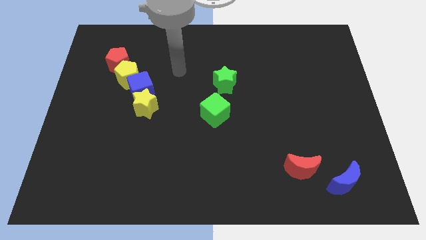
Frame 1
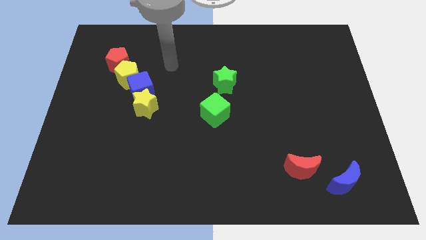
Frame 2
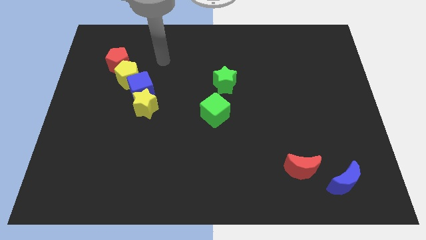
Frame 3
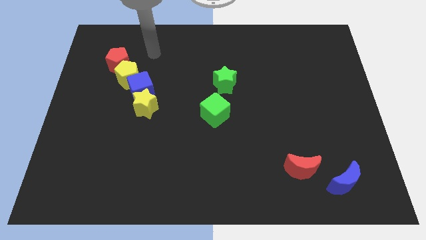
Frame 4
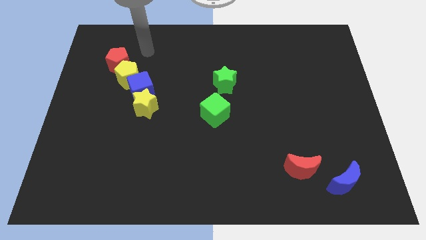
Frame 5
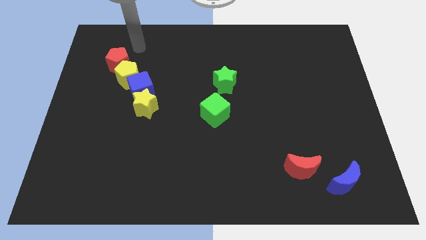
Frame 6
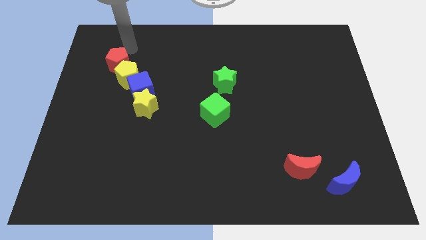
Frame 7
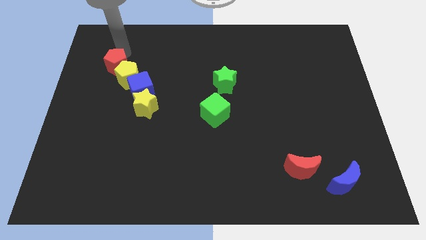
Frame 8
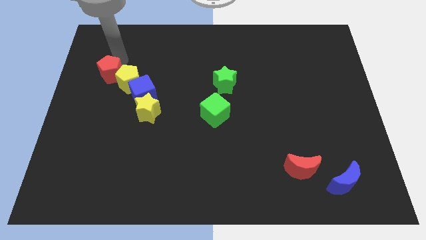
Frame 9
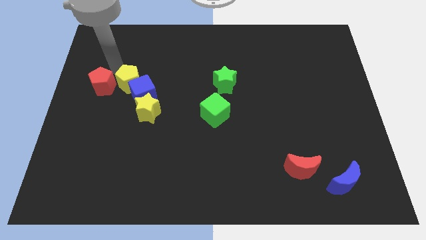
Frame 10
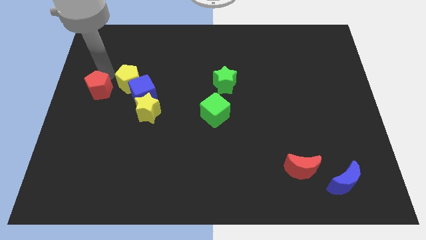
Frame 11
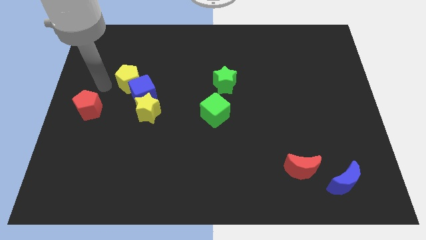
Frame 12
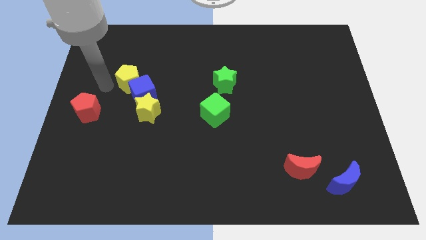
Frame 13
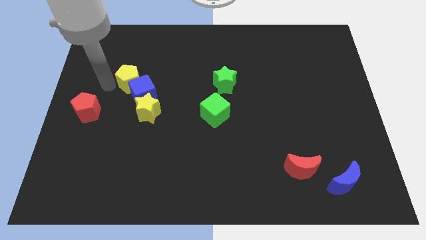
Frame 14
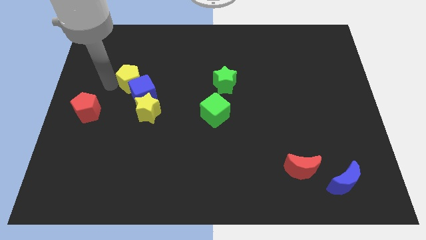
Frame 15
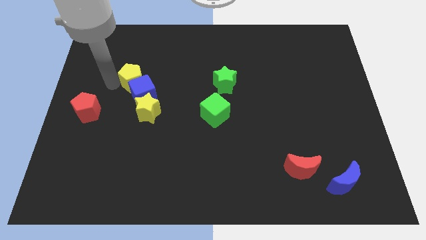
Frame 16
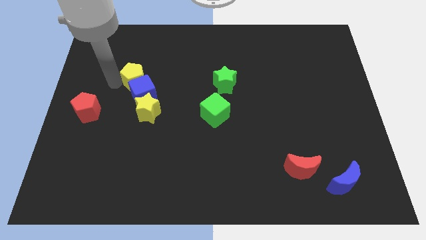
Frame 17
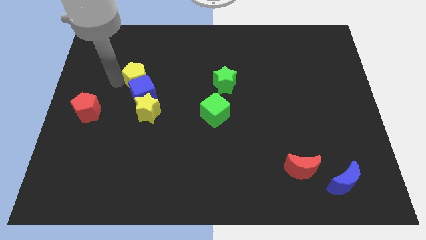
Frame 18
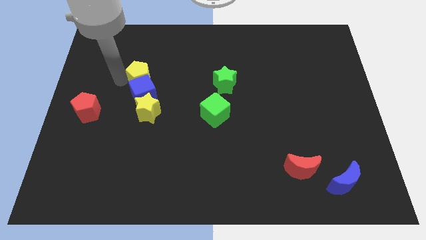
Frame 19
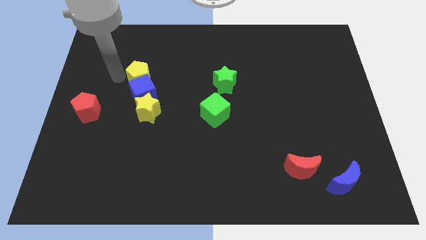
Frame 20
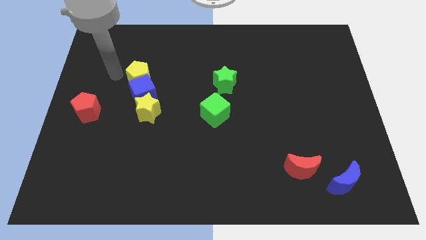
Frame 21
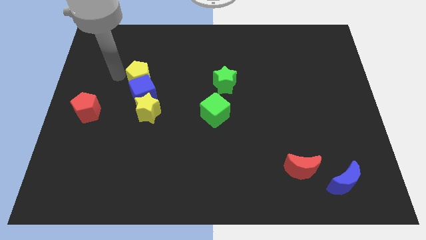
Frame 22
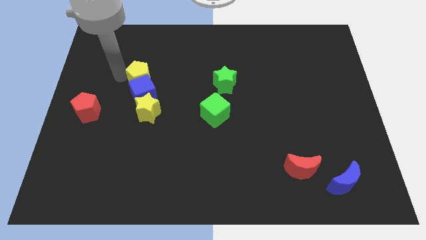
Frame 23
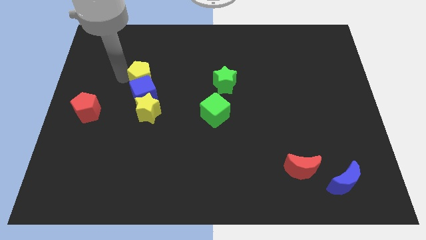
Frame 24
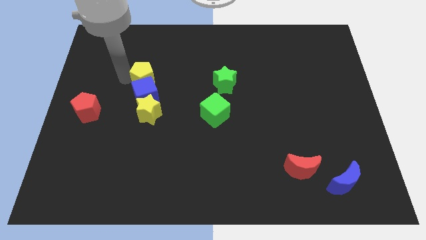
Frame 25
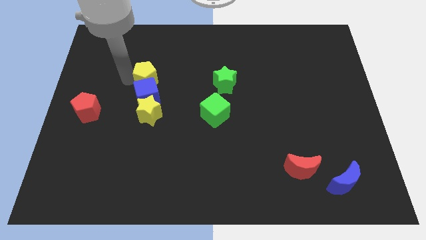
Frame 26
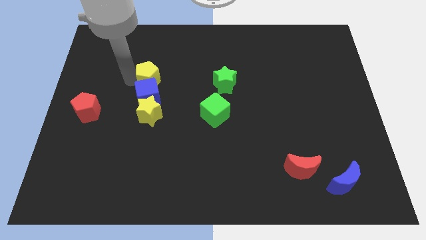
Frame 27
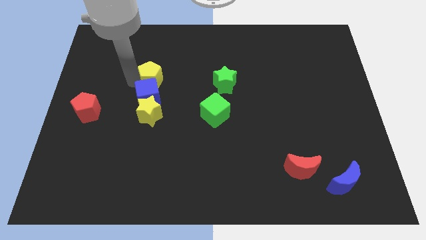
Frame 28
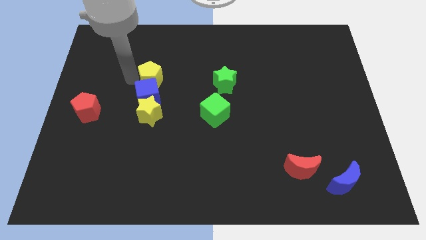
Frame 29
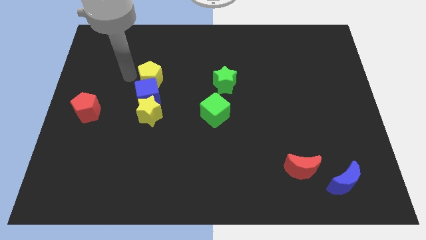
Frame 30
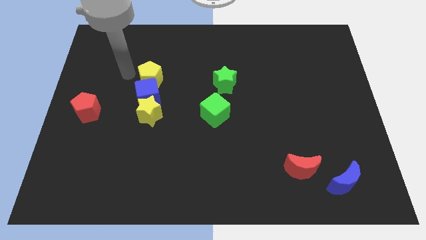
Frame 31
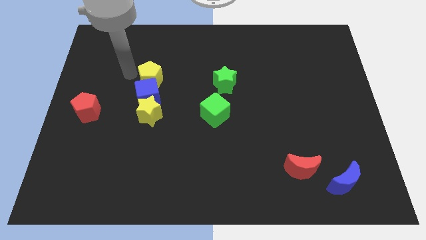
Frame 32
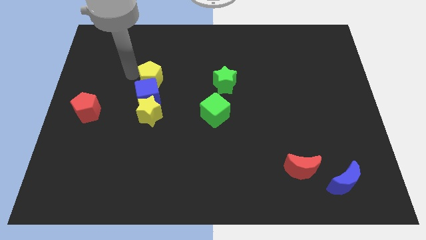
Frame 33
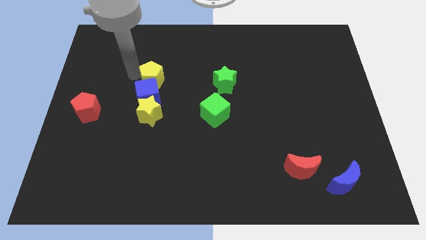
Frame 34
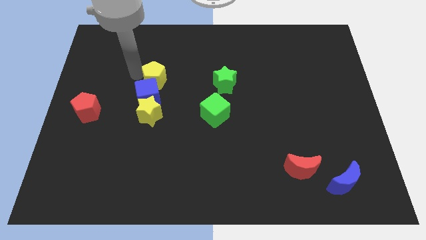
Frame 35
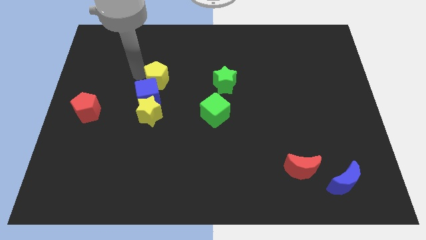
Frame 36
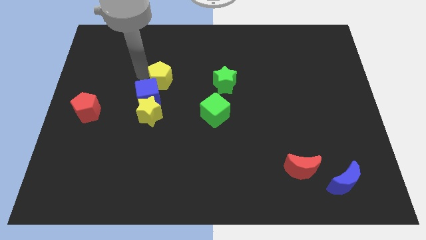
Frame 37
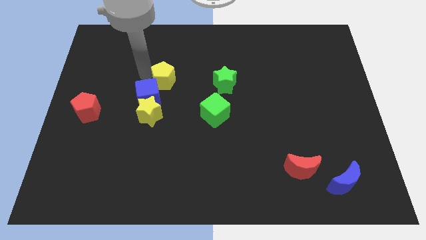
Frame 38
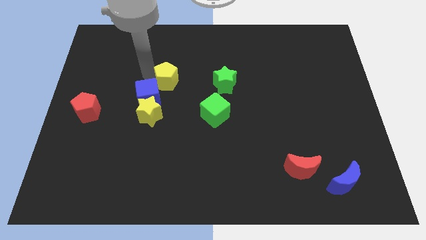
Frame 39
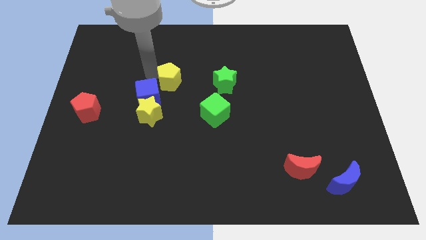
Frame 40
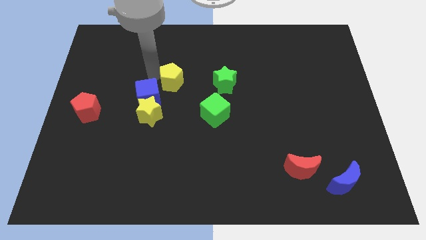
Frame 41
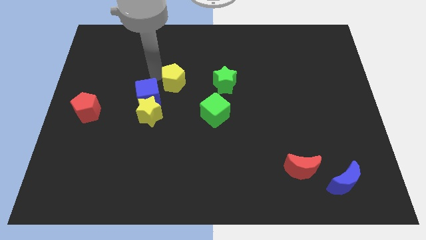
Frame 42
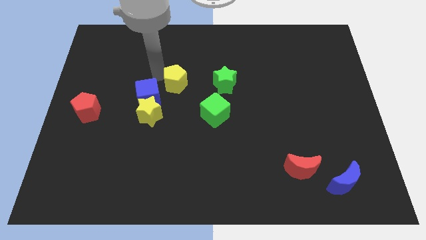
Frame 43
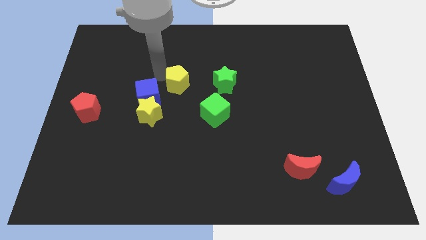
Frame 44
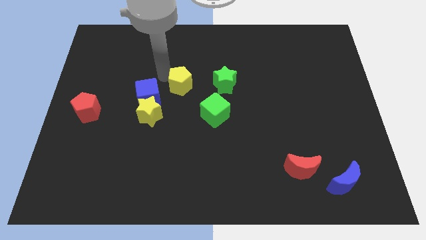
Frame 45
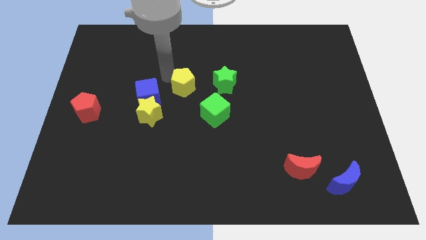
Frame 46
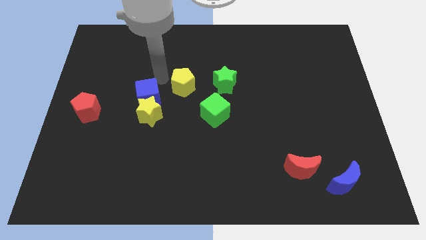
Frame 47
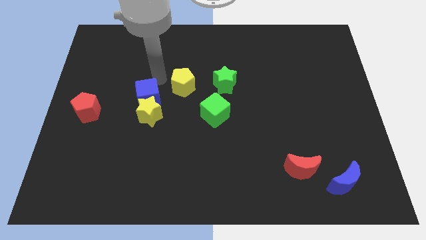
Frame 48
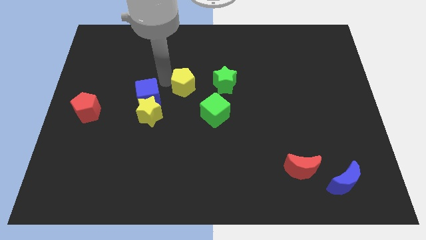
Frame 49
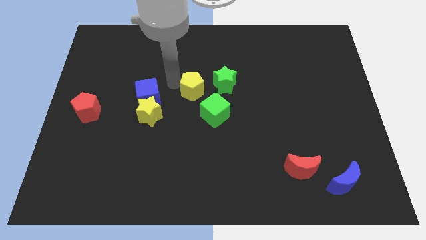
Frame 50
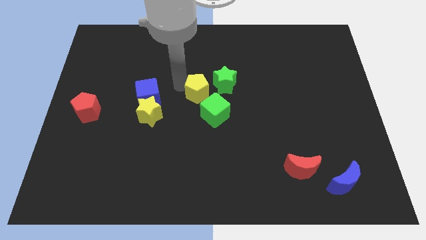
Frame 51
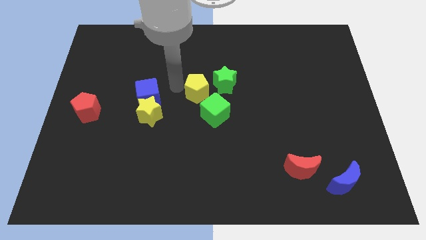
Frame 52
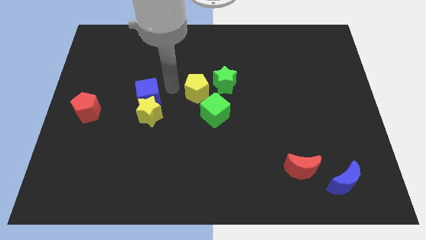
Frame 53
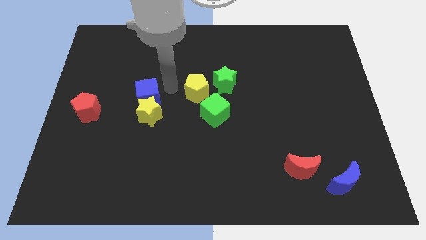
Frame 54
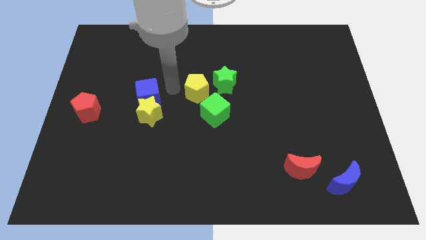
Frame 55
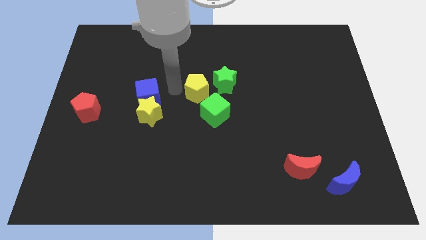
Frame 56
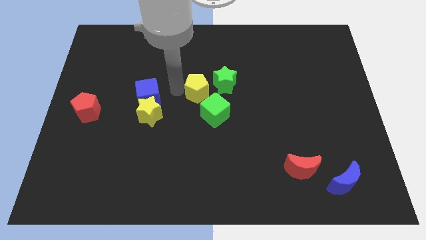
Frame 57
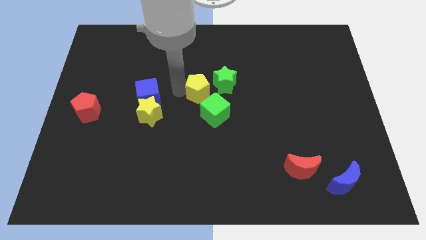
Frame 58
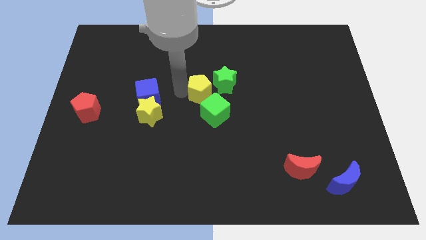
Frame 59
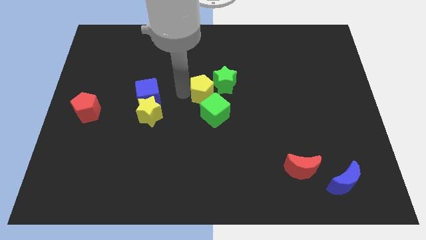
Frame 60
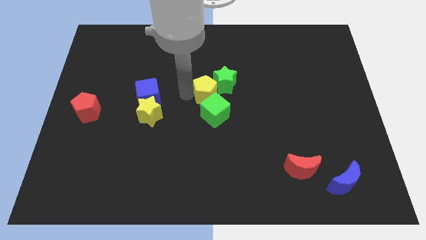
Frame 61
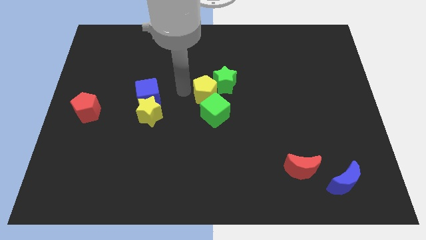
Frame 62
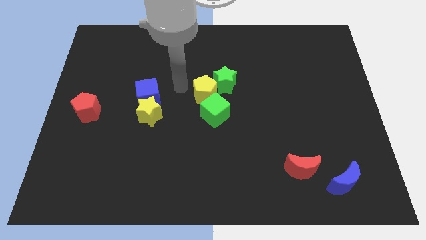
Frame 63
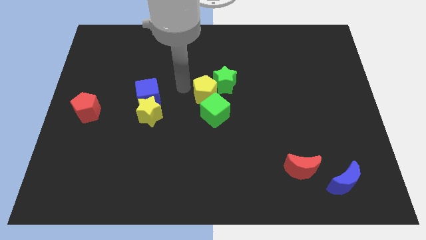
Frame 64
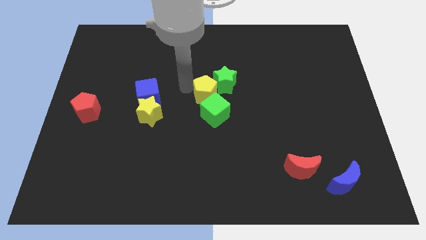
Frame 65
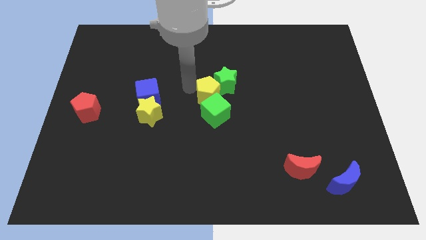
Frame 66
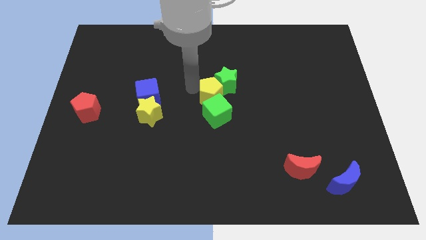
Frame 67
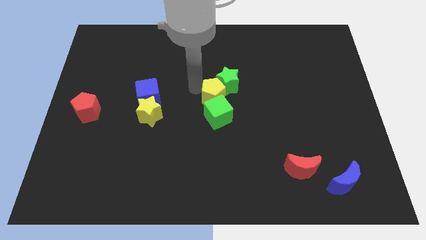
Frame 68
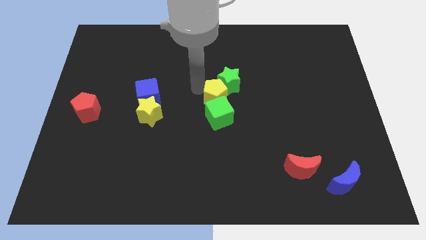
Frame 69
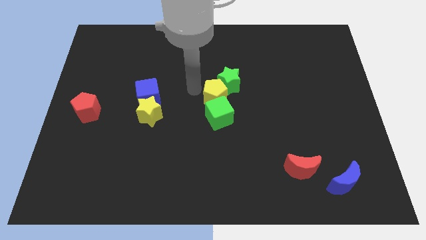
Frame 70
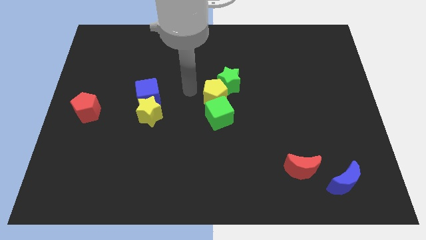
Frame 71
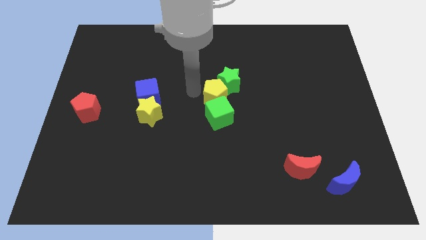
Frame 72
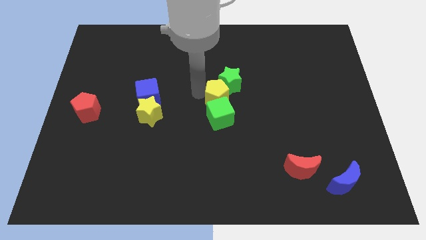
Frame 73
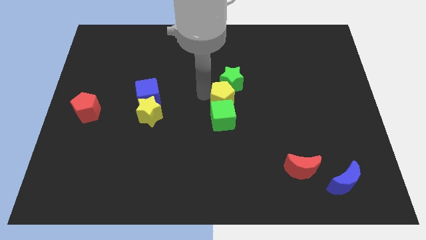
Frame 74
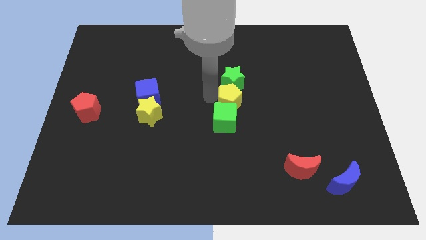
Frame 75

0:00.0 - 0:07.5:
slide the yellow pentagon diagonally down and to the right of the green star
